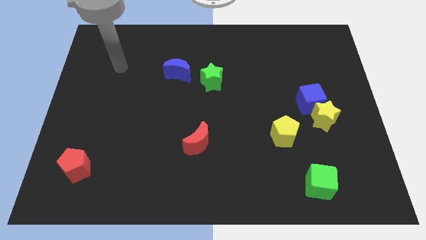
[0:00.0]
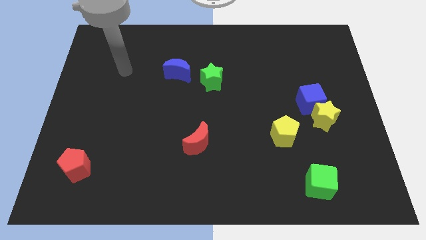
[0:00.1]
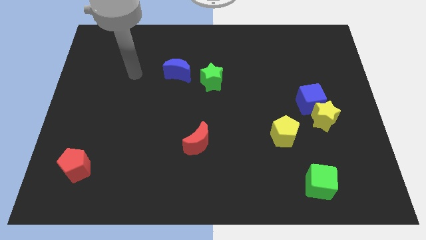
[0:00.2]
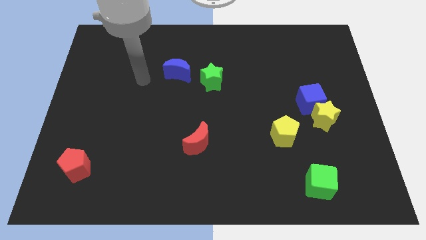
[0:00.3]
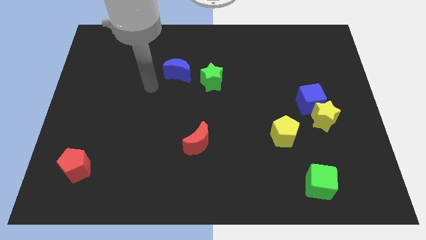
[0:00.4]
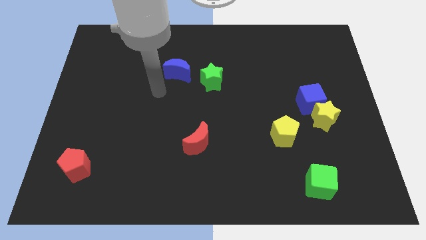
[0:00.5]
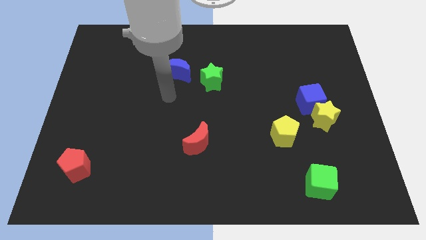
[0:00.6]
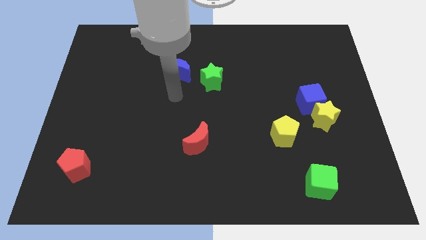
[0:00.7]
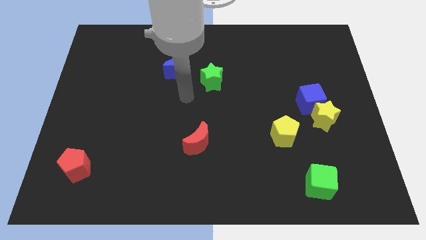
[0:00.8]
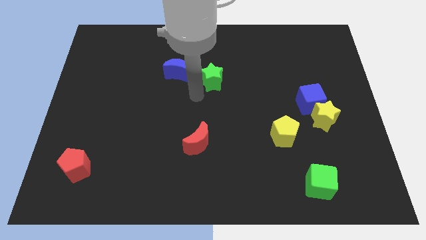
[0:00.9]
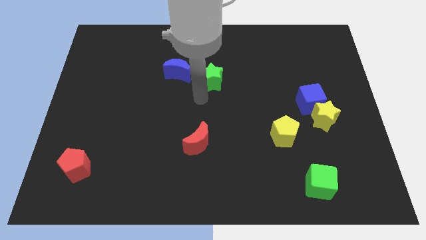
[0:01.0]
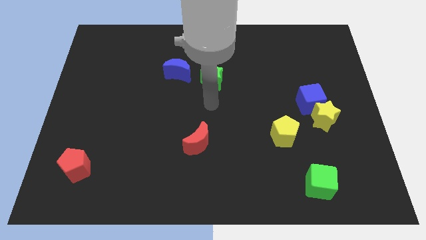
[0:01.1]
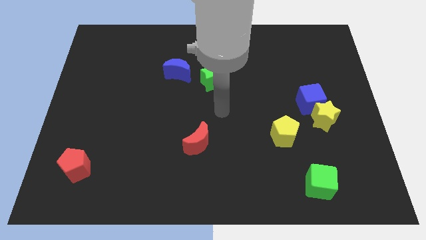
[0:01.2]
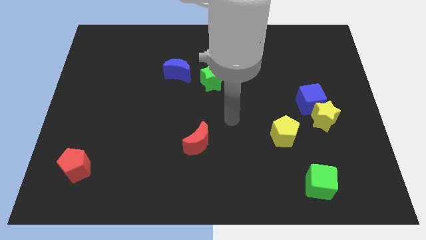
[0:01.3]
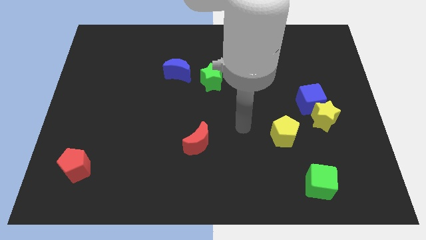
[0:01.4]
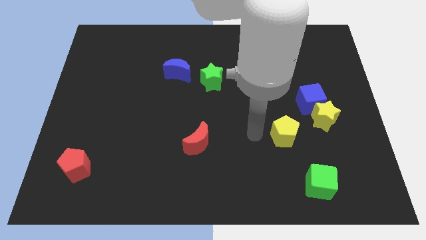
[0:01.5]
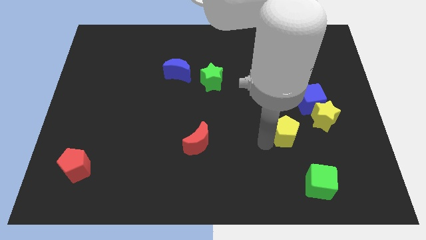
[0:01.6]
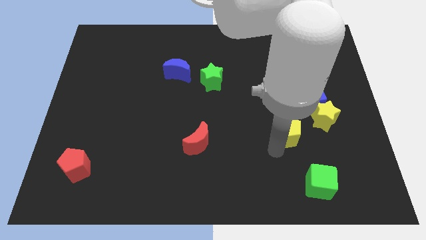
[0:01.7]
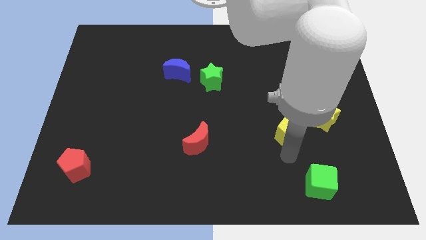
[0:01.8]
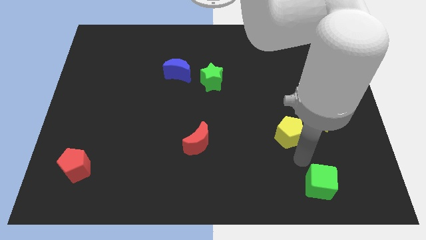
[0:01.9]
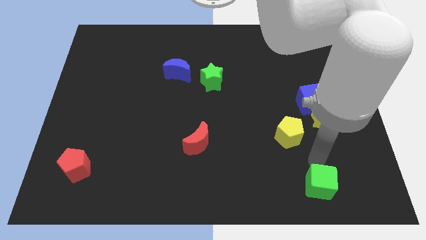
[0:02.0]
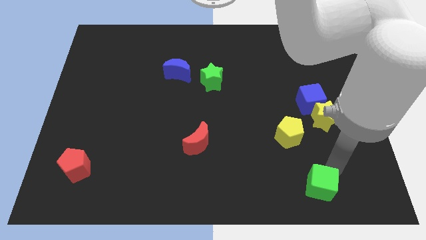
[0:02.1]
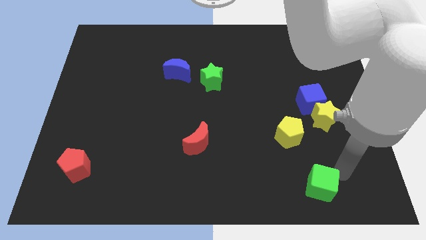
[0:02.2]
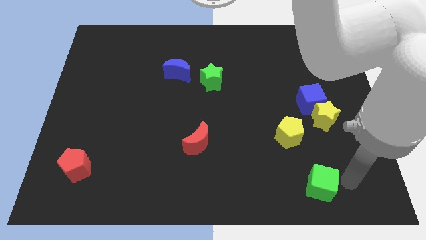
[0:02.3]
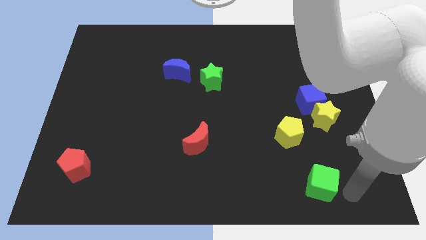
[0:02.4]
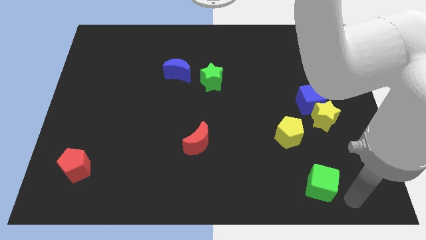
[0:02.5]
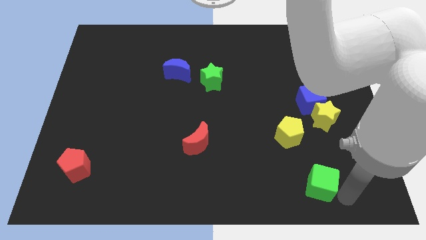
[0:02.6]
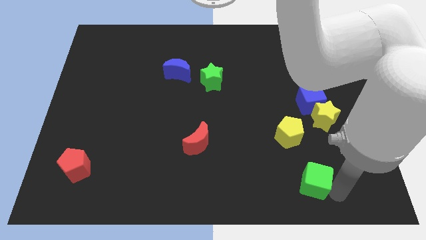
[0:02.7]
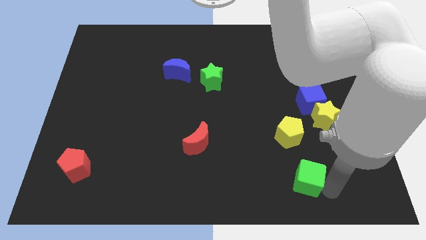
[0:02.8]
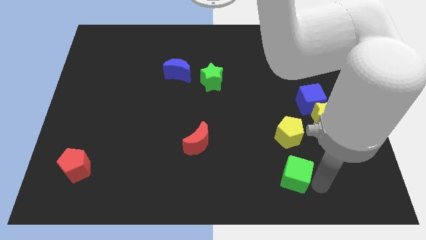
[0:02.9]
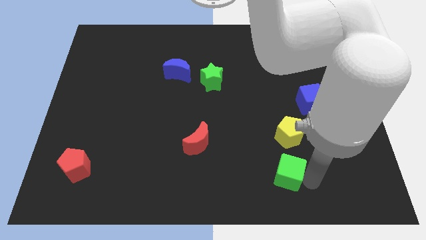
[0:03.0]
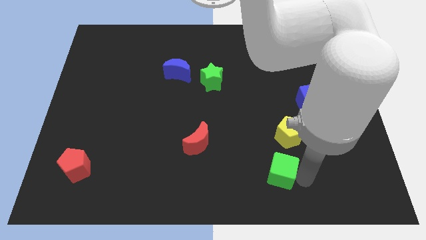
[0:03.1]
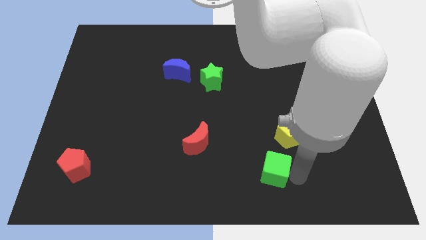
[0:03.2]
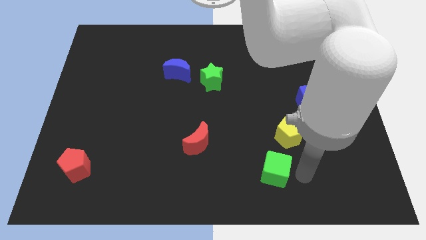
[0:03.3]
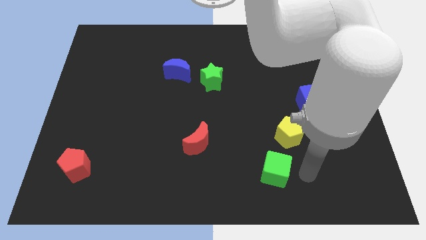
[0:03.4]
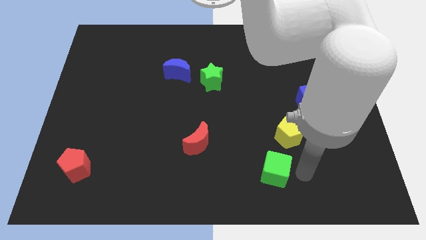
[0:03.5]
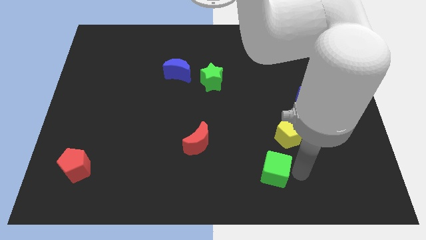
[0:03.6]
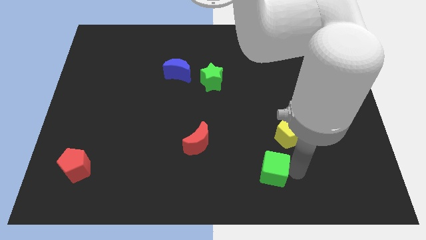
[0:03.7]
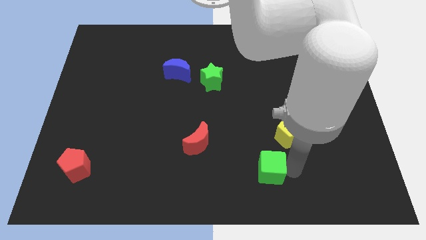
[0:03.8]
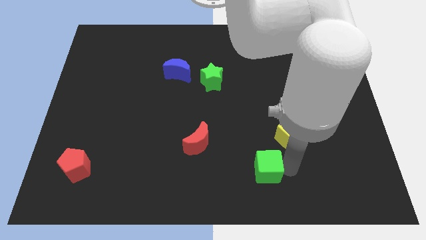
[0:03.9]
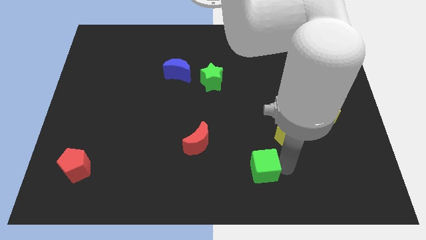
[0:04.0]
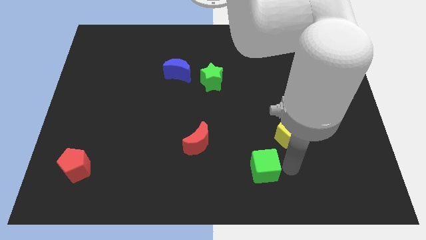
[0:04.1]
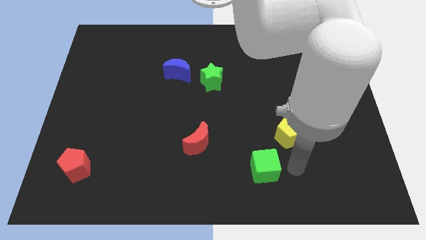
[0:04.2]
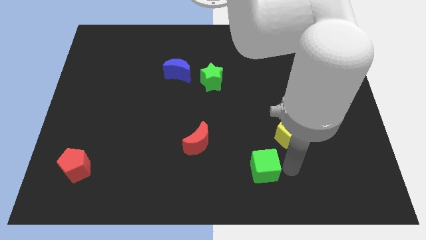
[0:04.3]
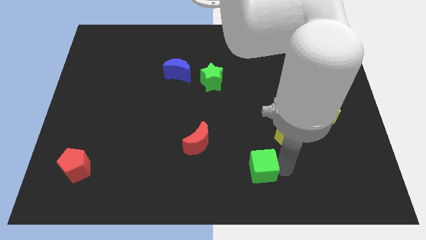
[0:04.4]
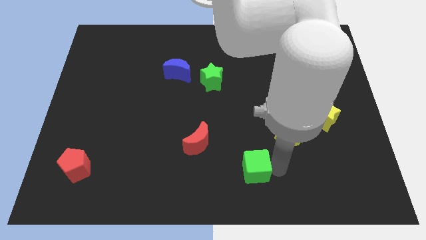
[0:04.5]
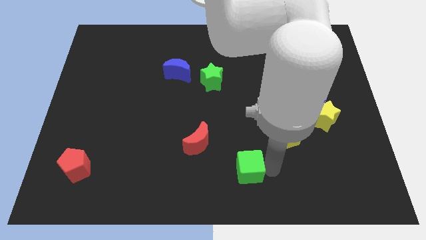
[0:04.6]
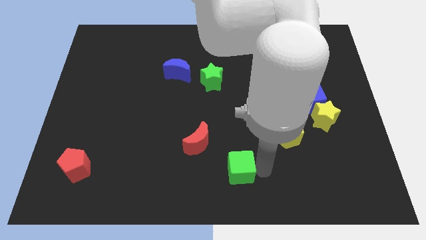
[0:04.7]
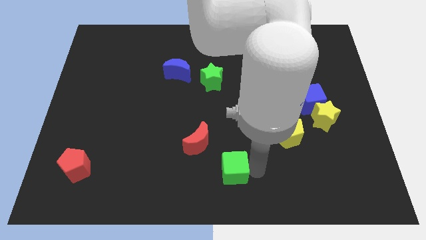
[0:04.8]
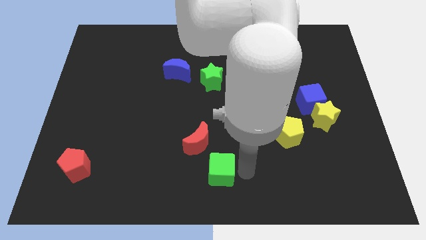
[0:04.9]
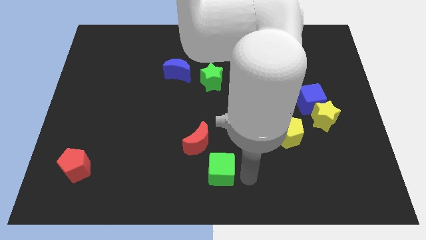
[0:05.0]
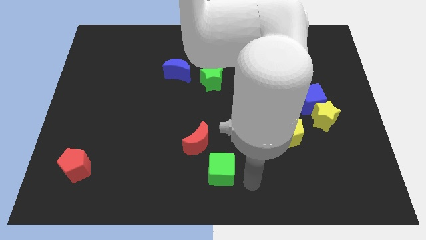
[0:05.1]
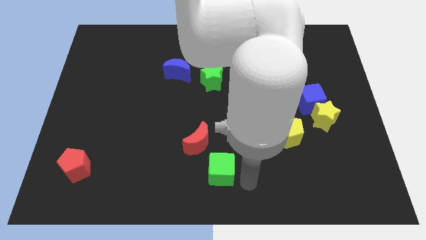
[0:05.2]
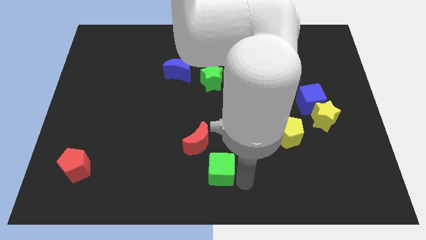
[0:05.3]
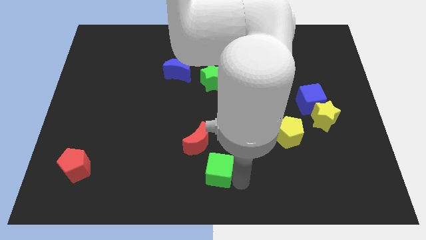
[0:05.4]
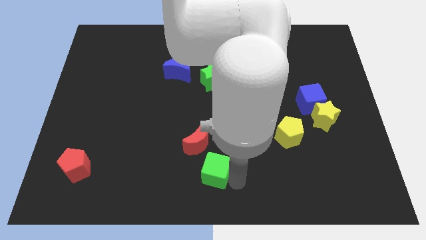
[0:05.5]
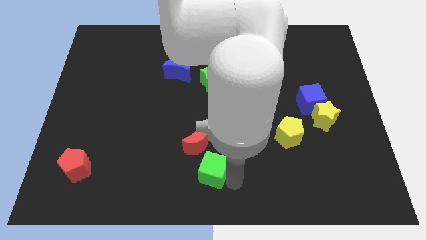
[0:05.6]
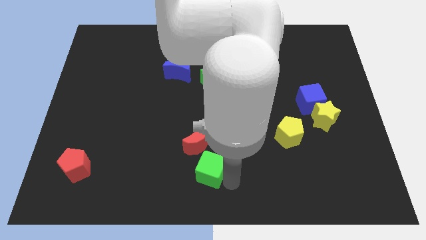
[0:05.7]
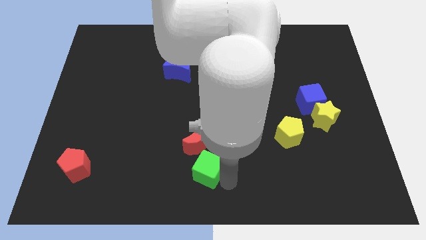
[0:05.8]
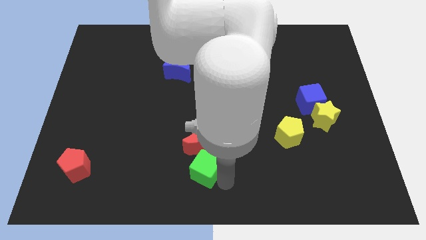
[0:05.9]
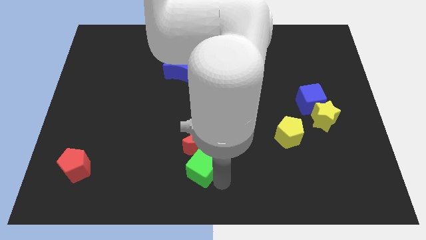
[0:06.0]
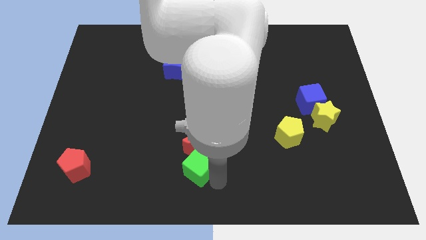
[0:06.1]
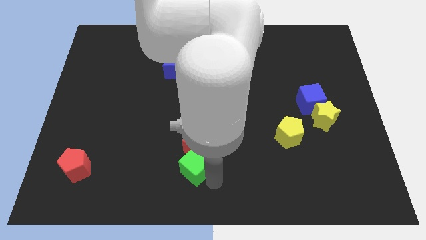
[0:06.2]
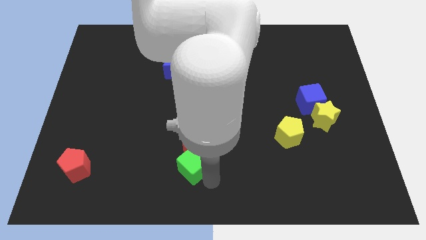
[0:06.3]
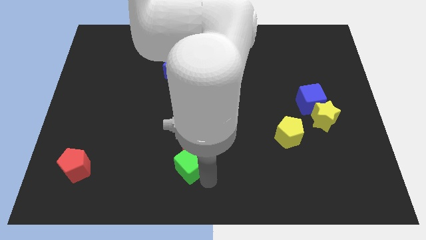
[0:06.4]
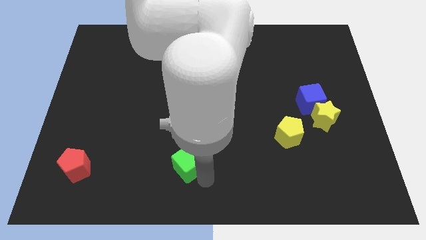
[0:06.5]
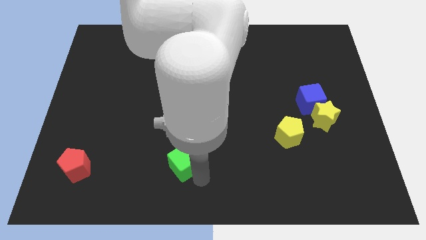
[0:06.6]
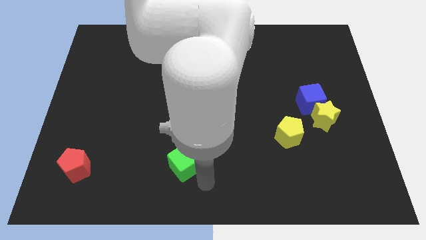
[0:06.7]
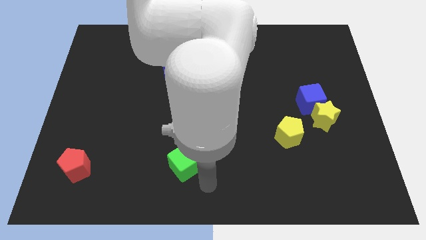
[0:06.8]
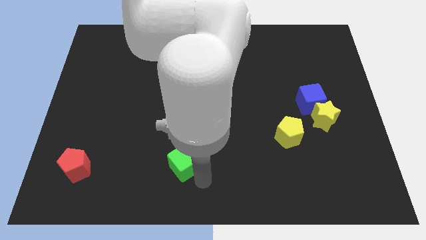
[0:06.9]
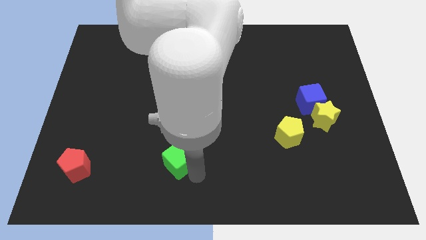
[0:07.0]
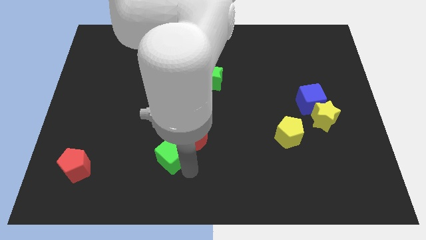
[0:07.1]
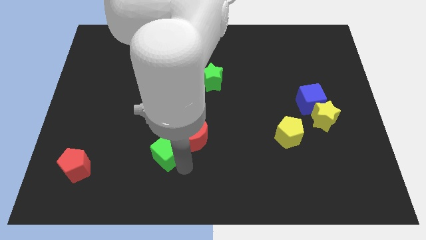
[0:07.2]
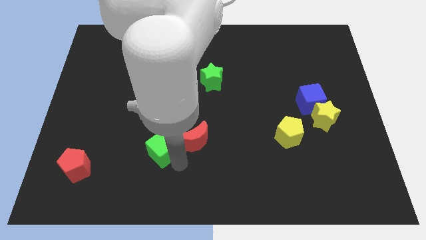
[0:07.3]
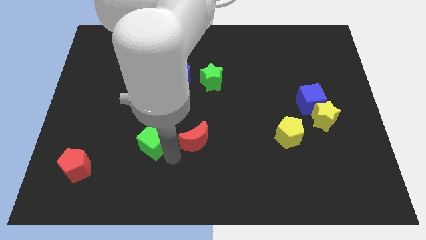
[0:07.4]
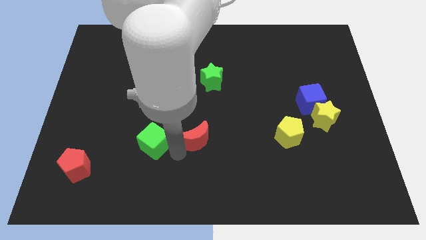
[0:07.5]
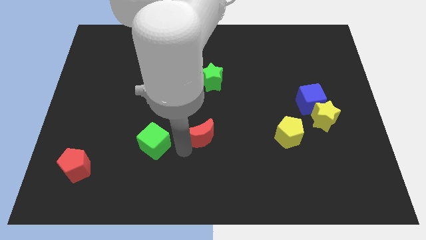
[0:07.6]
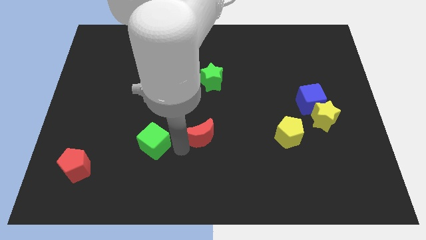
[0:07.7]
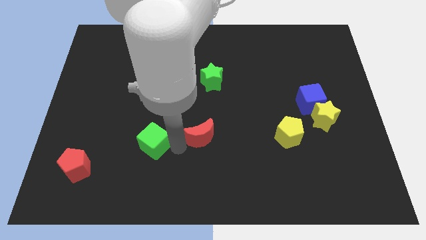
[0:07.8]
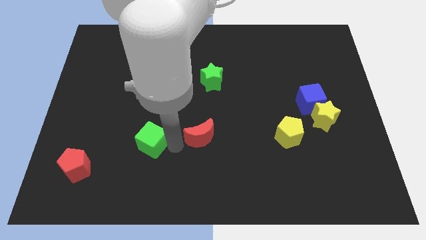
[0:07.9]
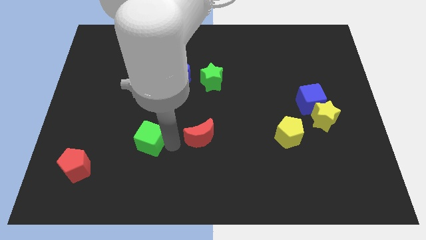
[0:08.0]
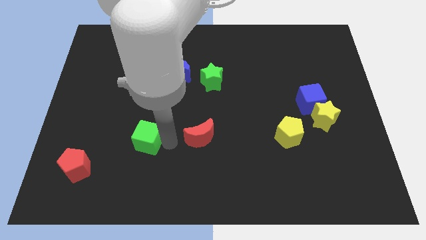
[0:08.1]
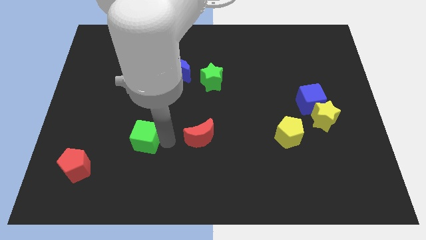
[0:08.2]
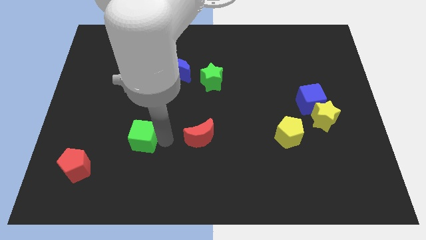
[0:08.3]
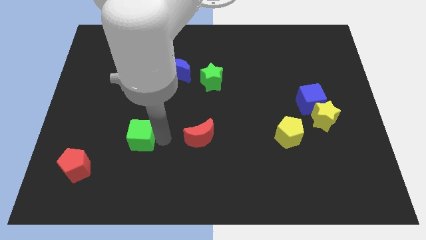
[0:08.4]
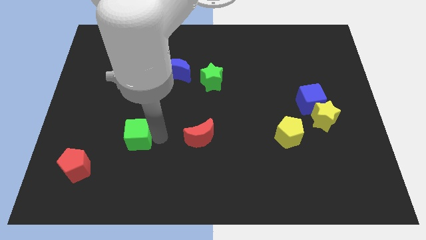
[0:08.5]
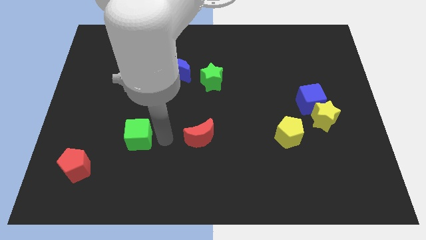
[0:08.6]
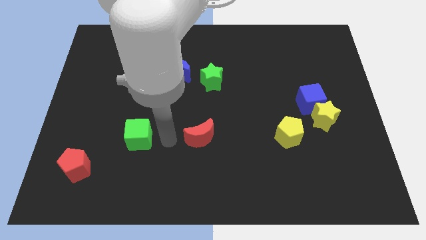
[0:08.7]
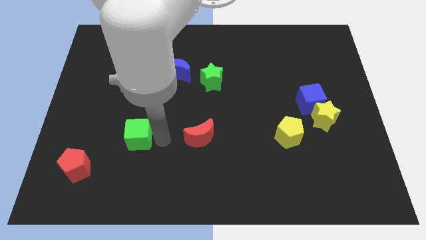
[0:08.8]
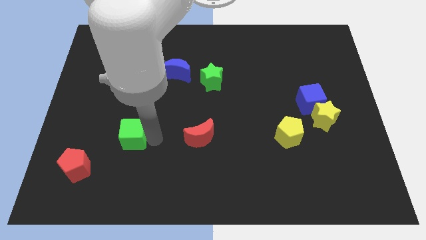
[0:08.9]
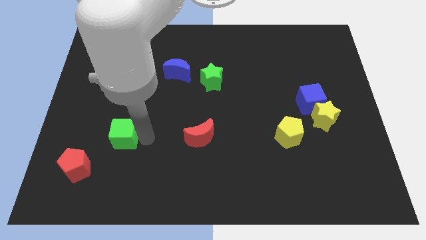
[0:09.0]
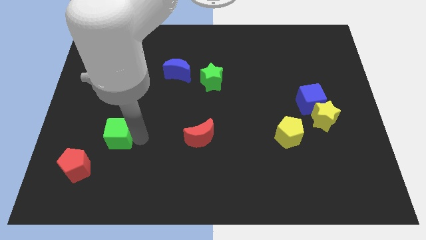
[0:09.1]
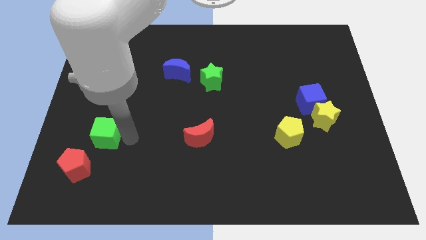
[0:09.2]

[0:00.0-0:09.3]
put the green cube to the top side of the red pentagon
